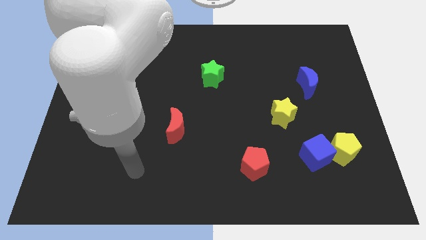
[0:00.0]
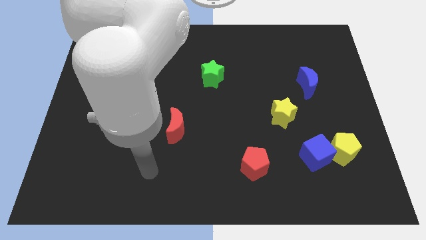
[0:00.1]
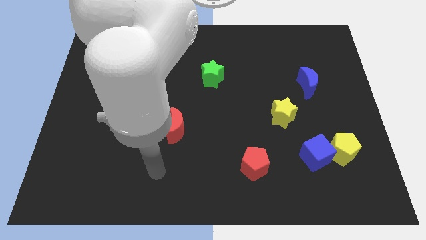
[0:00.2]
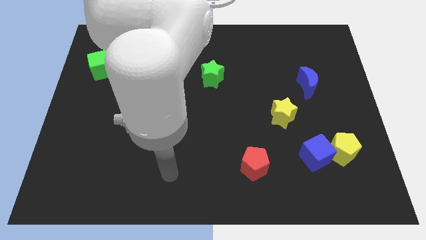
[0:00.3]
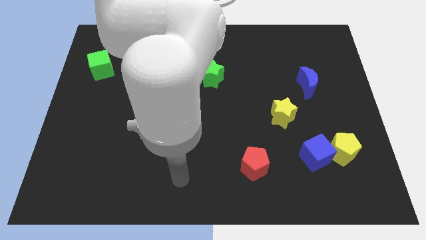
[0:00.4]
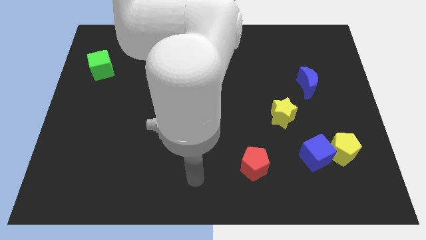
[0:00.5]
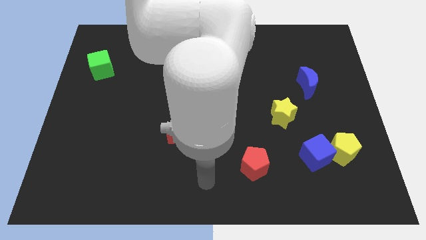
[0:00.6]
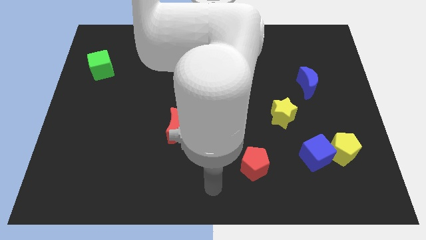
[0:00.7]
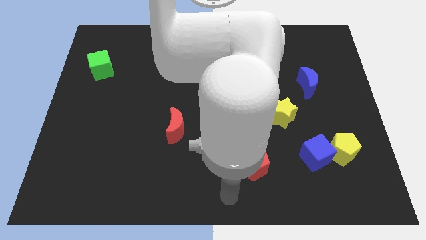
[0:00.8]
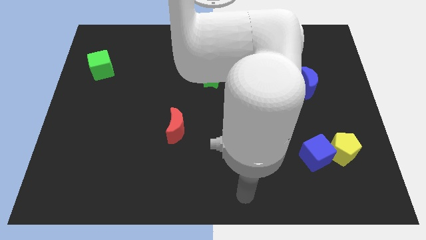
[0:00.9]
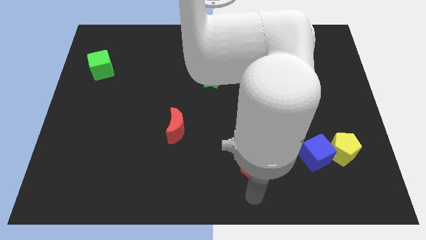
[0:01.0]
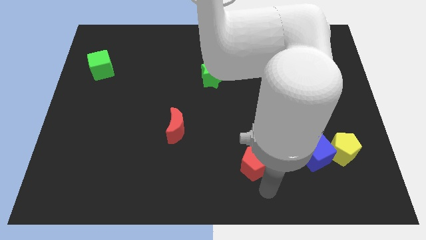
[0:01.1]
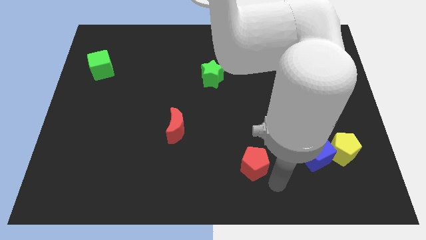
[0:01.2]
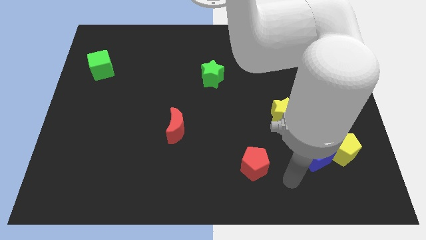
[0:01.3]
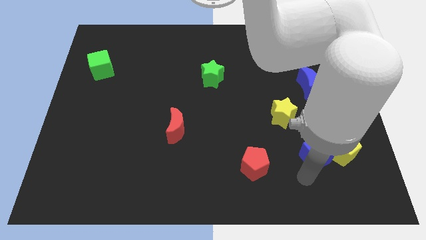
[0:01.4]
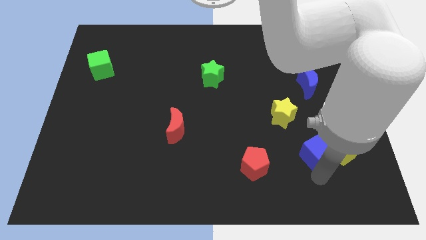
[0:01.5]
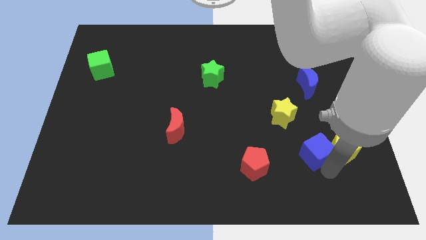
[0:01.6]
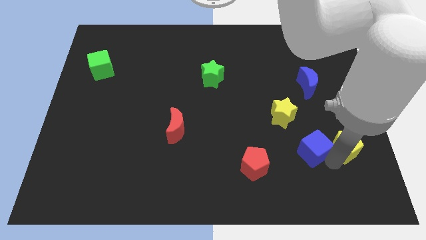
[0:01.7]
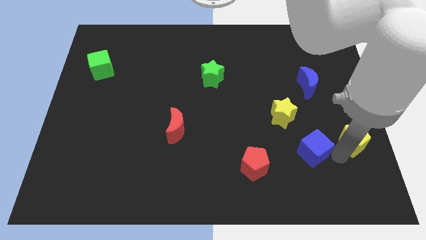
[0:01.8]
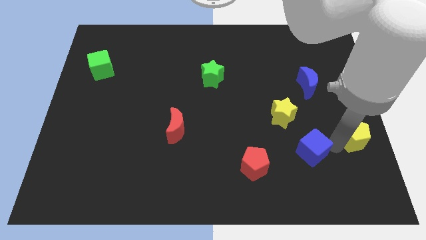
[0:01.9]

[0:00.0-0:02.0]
move the blue cube away from the yellow pentagon

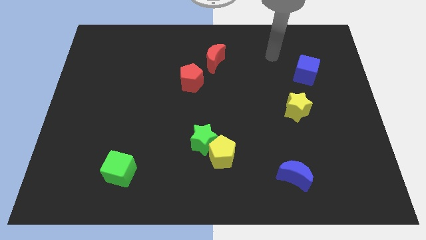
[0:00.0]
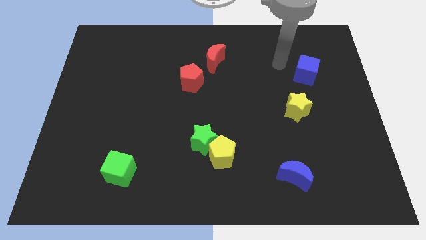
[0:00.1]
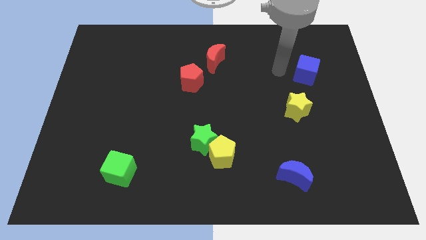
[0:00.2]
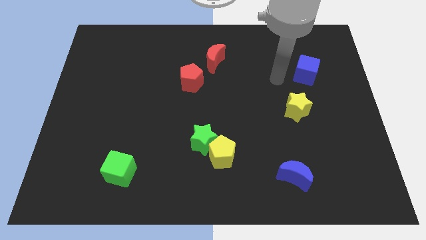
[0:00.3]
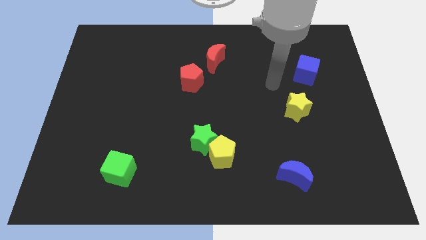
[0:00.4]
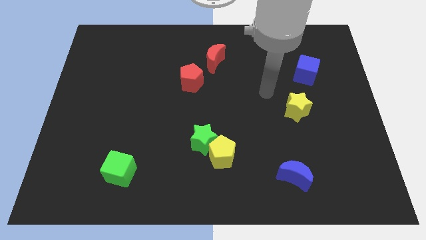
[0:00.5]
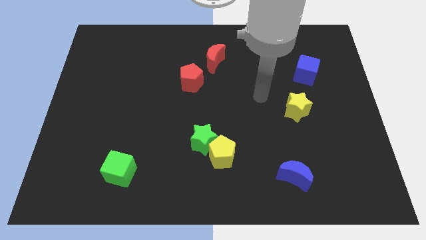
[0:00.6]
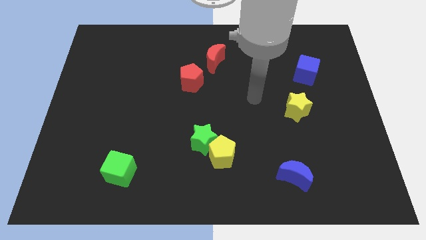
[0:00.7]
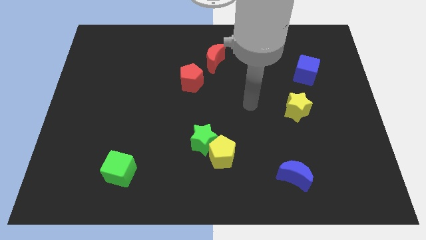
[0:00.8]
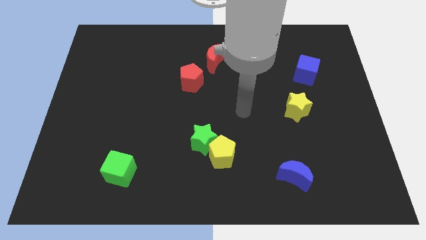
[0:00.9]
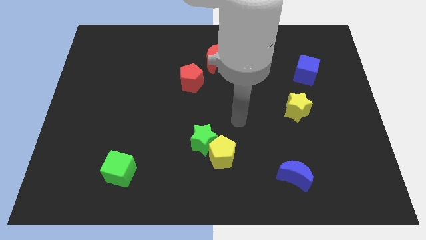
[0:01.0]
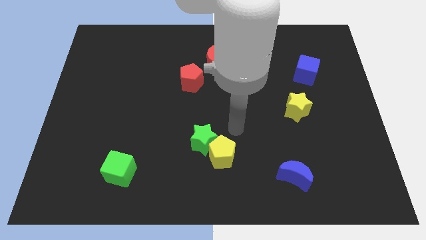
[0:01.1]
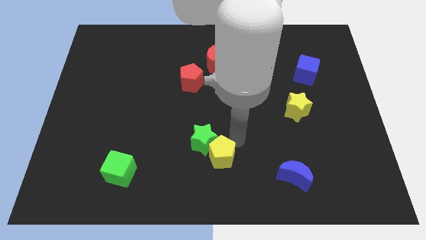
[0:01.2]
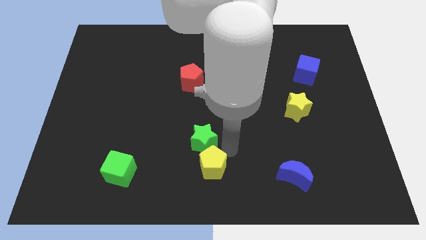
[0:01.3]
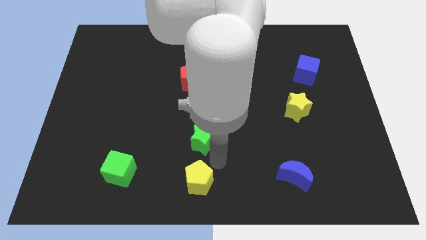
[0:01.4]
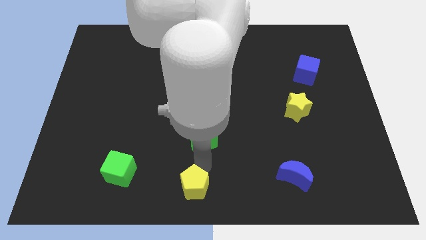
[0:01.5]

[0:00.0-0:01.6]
move the green star away from the yellow pentagon

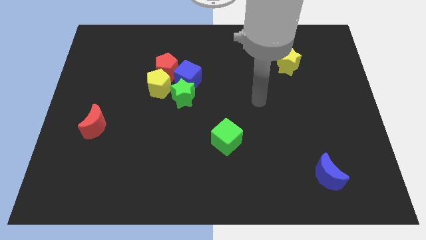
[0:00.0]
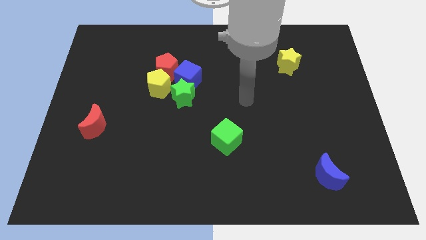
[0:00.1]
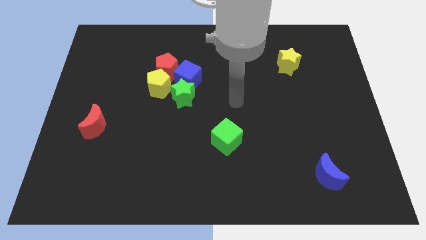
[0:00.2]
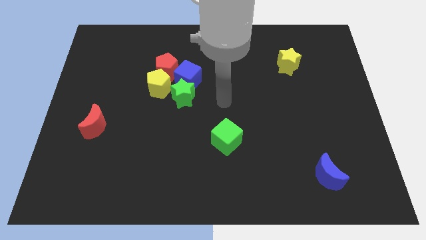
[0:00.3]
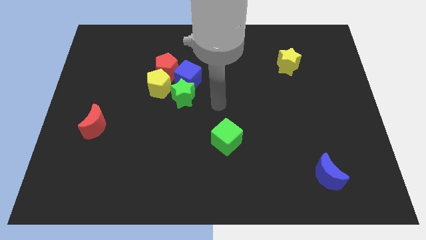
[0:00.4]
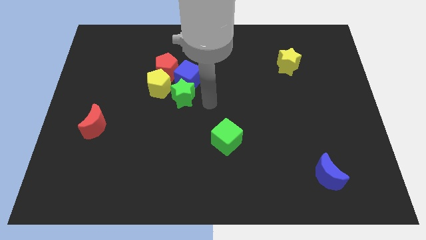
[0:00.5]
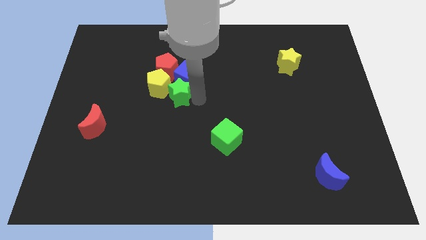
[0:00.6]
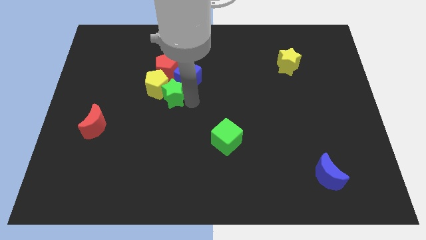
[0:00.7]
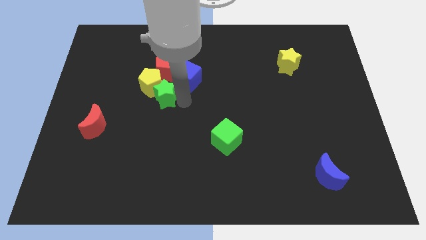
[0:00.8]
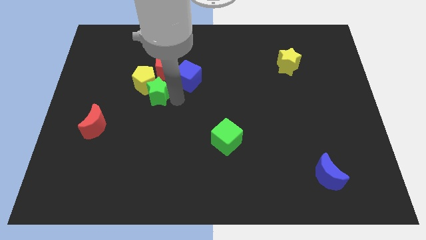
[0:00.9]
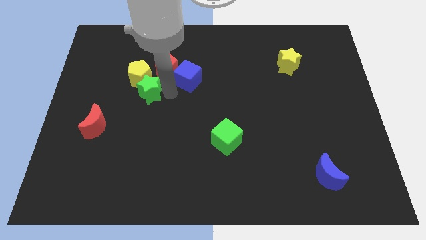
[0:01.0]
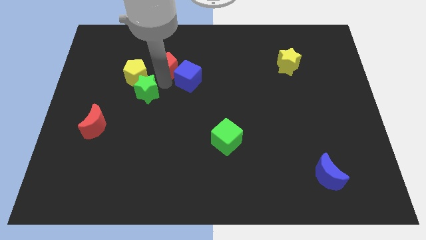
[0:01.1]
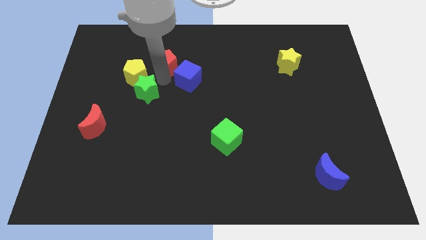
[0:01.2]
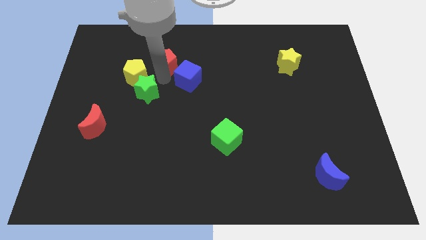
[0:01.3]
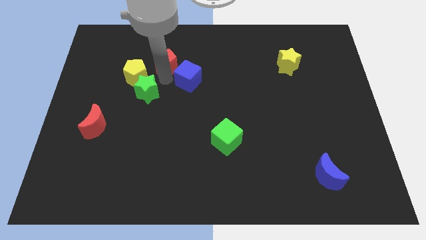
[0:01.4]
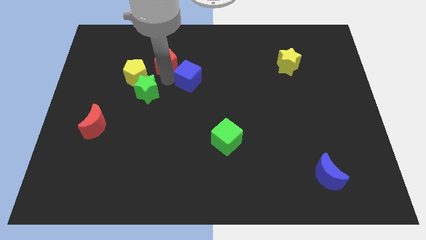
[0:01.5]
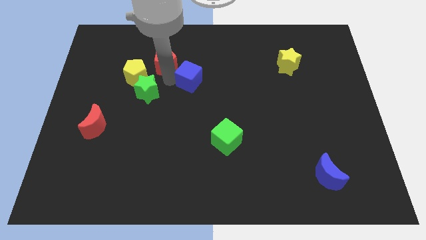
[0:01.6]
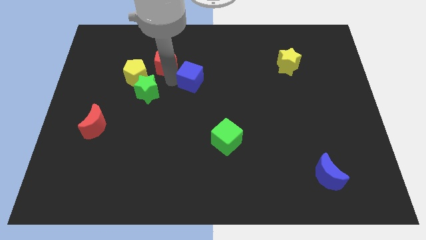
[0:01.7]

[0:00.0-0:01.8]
move the blue cube away from the clump

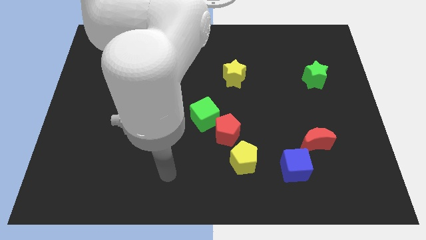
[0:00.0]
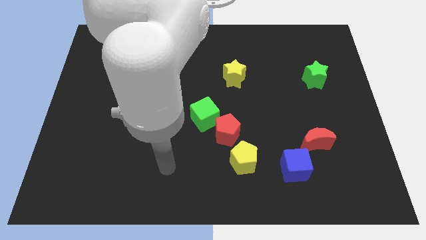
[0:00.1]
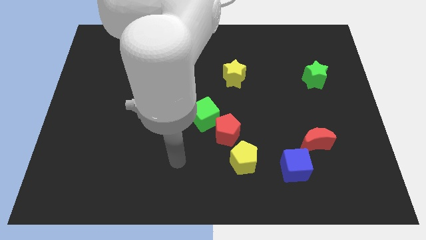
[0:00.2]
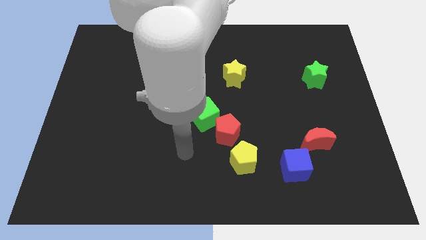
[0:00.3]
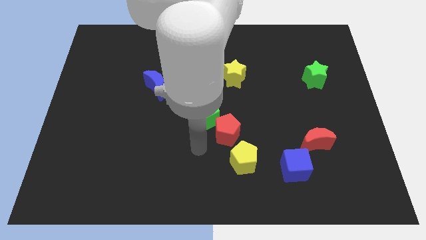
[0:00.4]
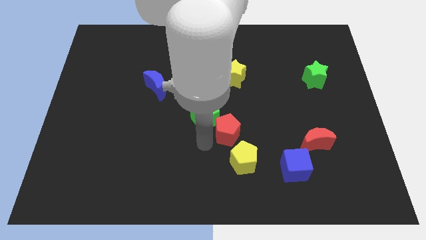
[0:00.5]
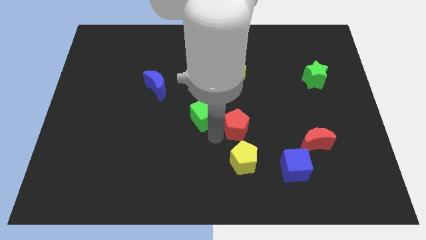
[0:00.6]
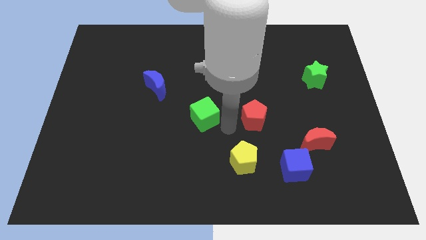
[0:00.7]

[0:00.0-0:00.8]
pull the green cube apart from the red pentagon

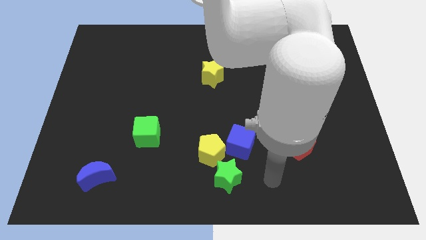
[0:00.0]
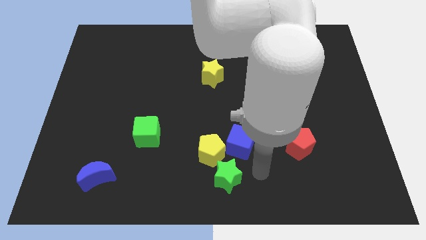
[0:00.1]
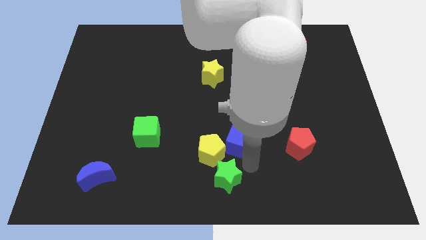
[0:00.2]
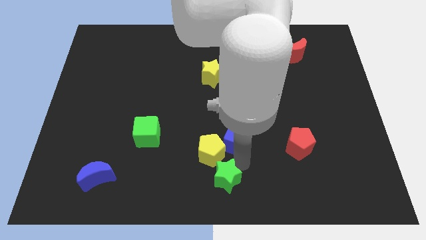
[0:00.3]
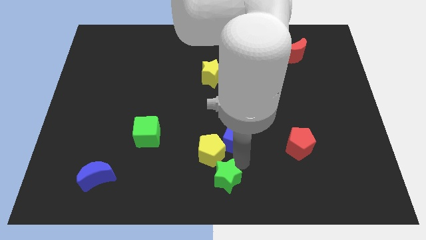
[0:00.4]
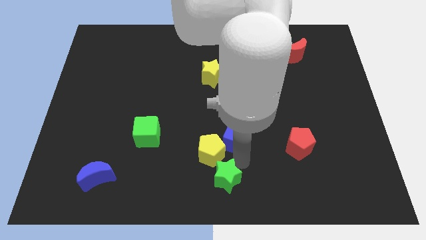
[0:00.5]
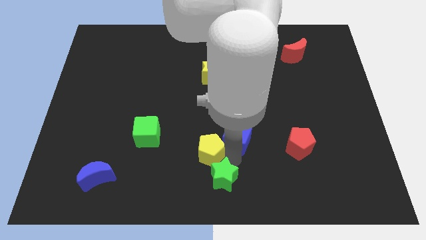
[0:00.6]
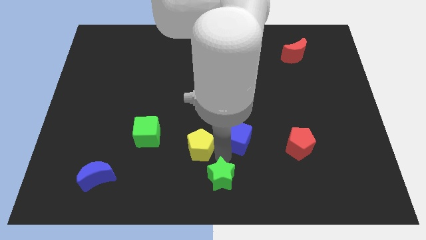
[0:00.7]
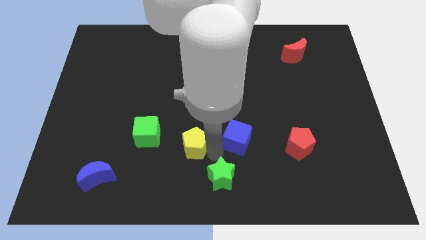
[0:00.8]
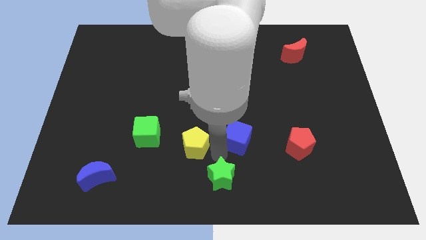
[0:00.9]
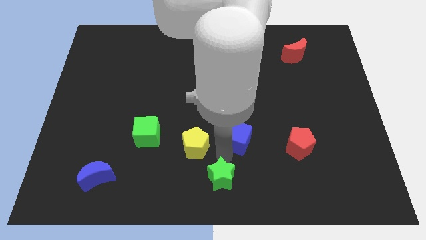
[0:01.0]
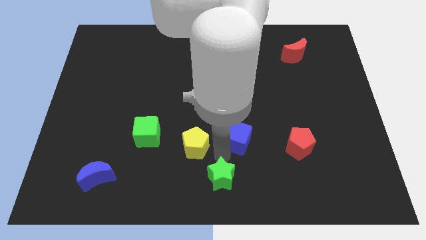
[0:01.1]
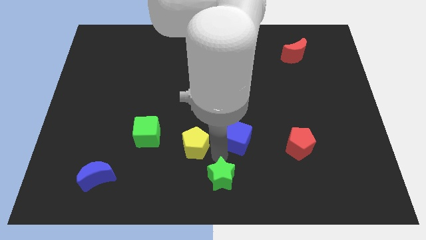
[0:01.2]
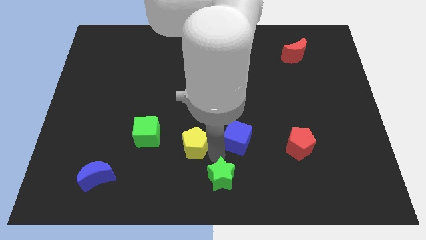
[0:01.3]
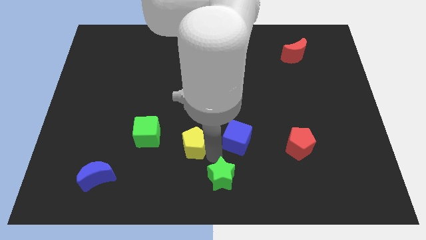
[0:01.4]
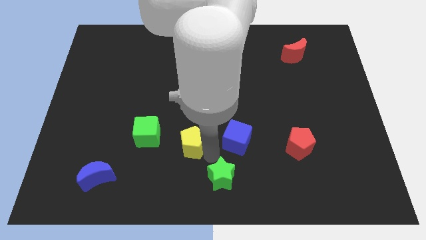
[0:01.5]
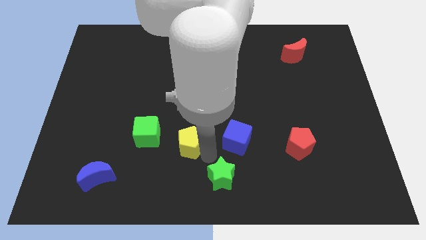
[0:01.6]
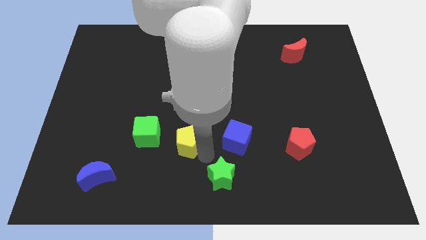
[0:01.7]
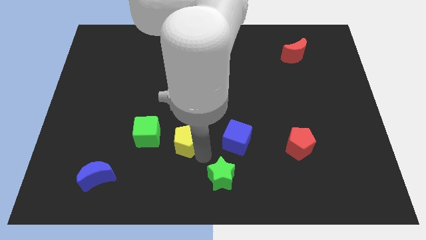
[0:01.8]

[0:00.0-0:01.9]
separate the yellow pentagon from the blue cube and green star

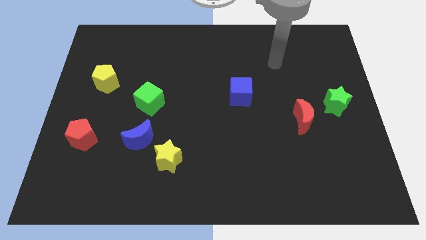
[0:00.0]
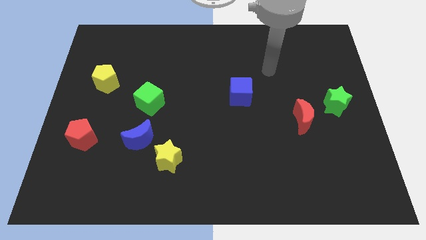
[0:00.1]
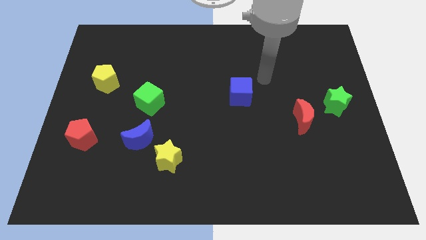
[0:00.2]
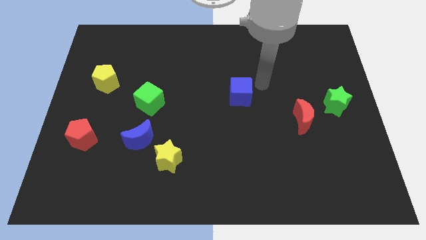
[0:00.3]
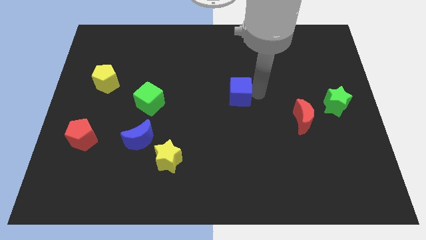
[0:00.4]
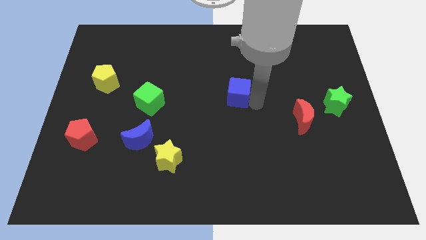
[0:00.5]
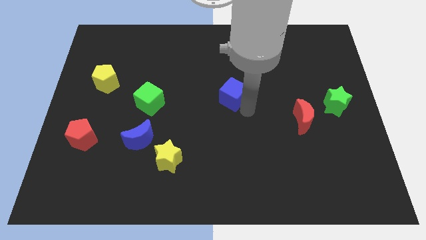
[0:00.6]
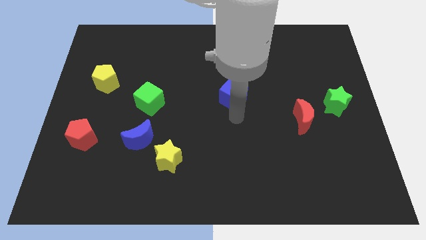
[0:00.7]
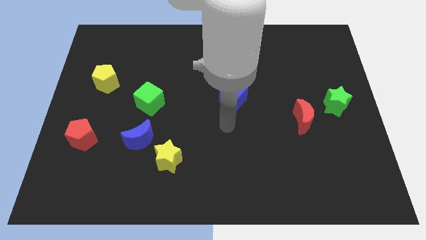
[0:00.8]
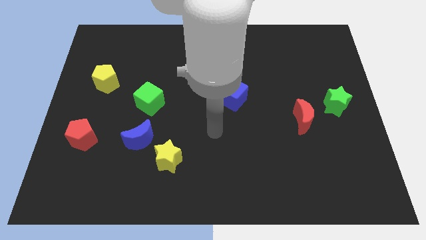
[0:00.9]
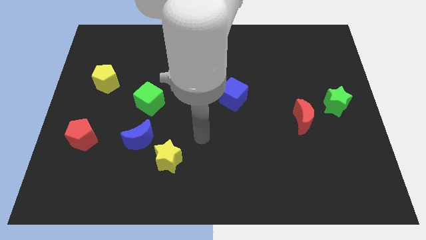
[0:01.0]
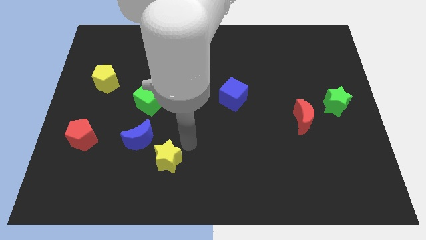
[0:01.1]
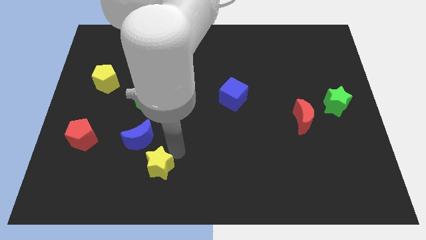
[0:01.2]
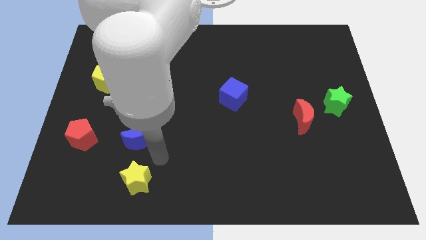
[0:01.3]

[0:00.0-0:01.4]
pull the blue moon apart from the yellow star
